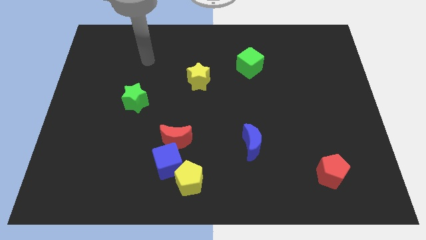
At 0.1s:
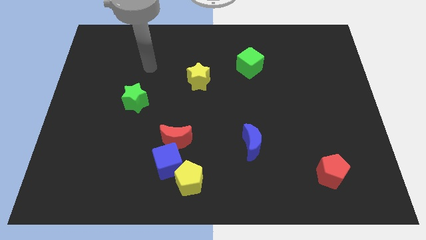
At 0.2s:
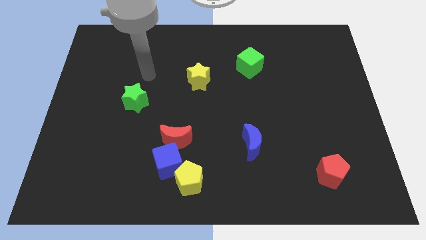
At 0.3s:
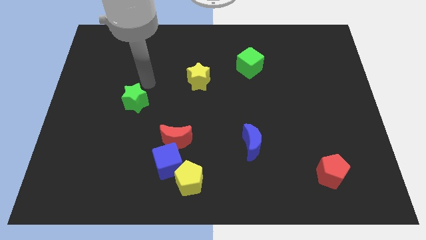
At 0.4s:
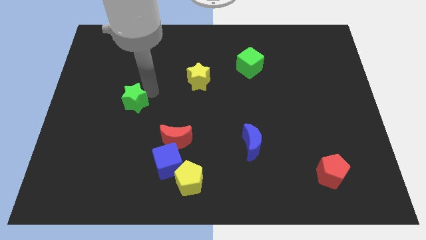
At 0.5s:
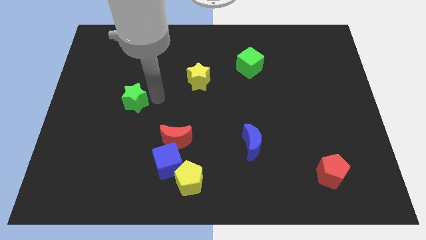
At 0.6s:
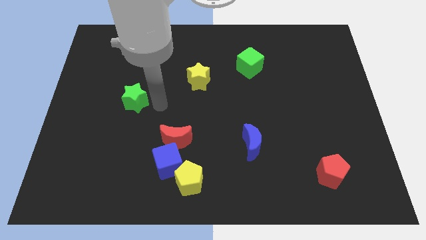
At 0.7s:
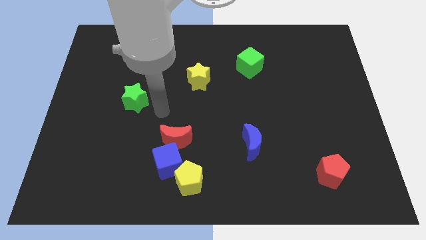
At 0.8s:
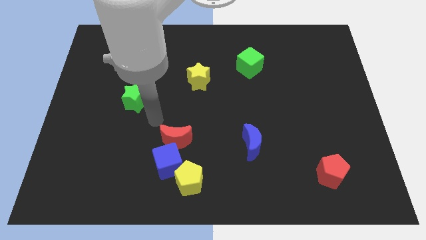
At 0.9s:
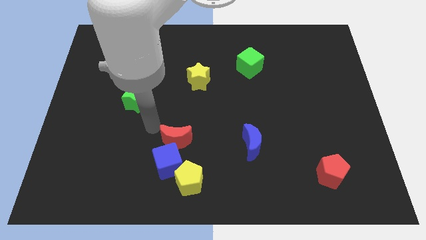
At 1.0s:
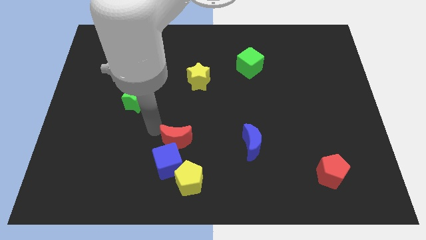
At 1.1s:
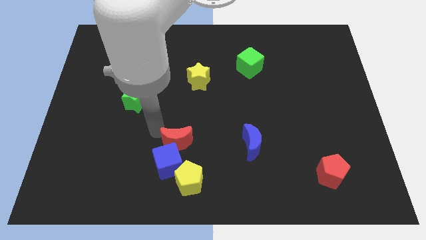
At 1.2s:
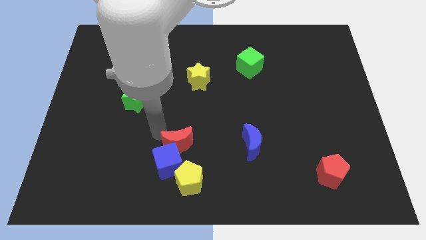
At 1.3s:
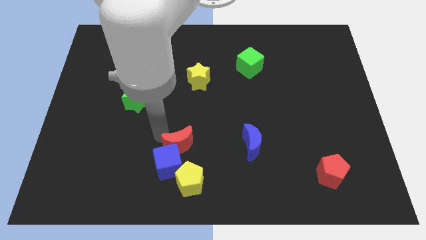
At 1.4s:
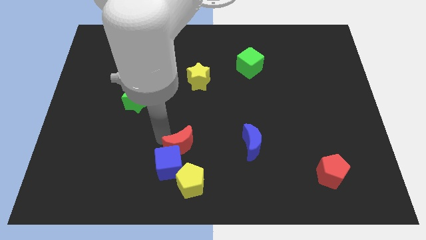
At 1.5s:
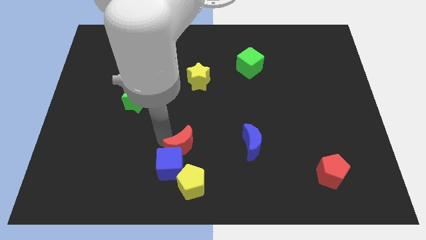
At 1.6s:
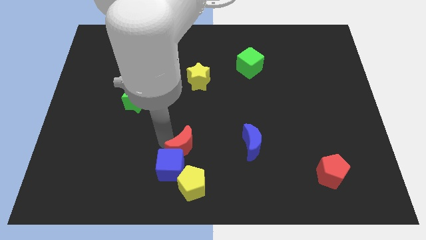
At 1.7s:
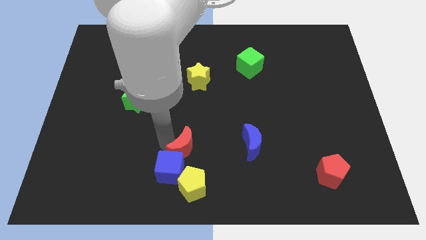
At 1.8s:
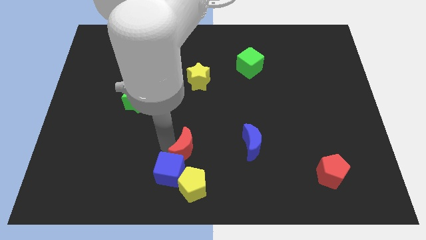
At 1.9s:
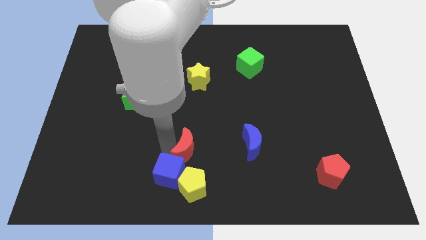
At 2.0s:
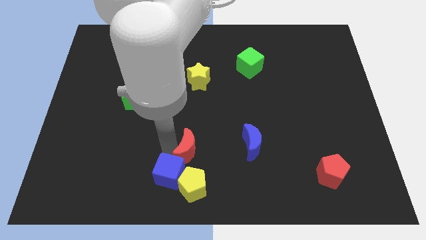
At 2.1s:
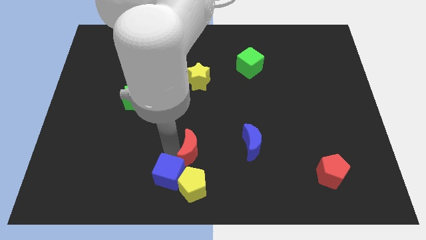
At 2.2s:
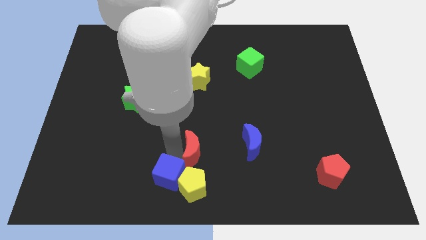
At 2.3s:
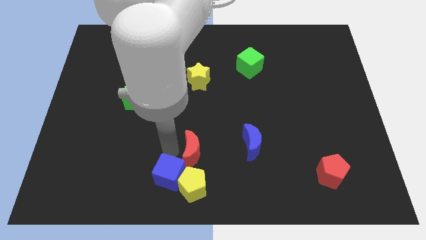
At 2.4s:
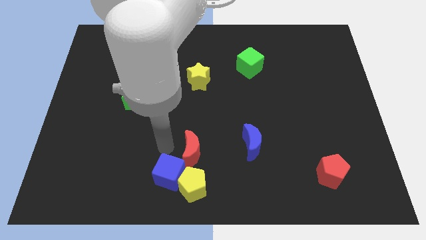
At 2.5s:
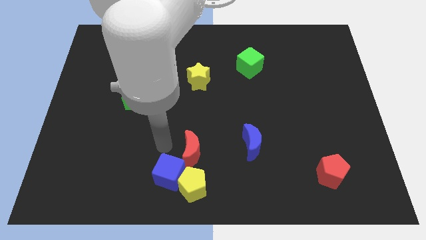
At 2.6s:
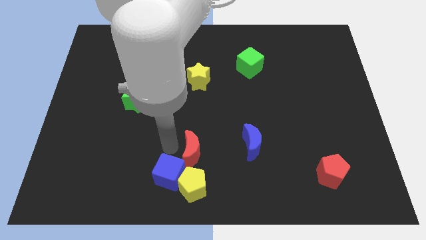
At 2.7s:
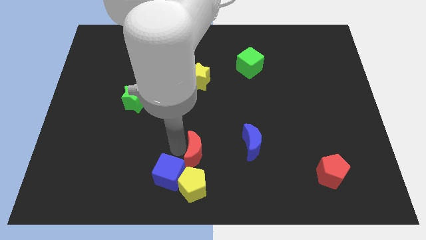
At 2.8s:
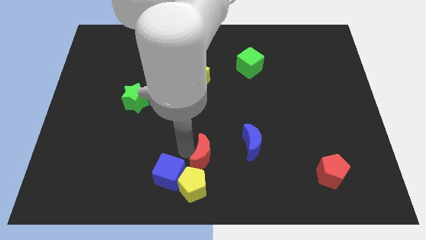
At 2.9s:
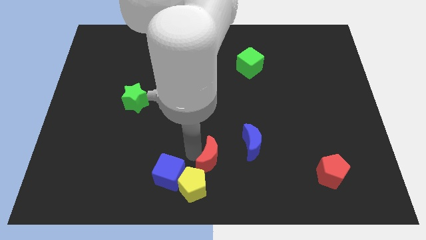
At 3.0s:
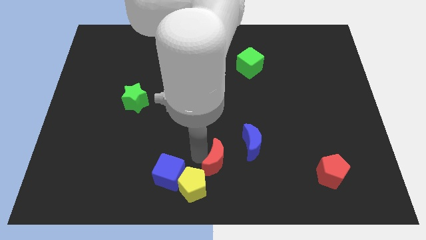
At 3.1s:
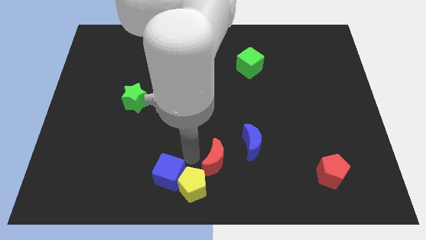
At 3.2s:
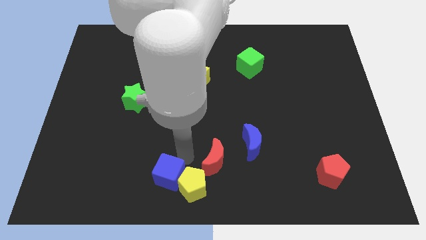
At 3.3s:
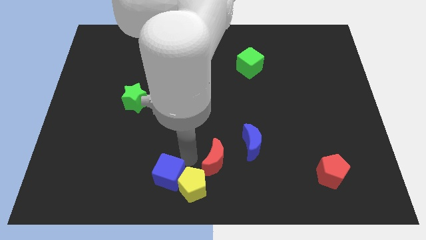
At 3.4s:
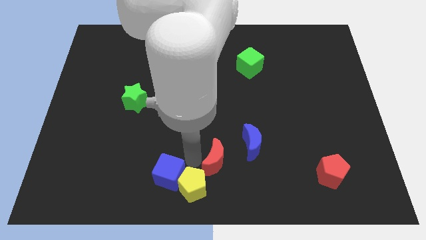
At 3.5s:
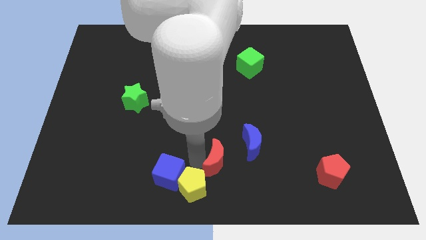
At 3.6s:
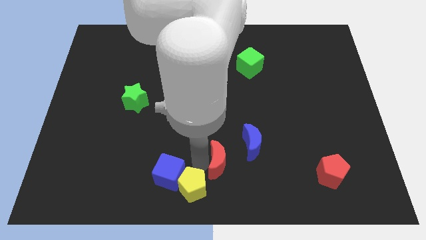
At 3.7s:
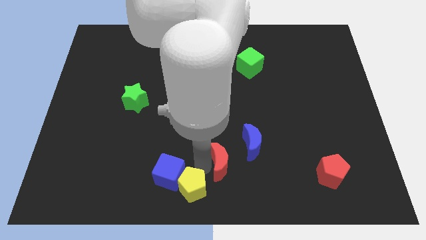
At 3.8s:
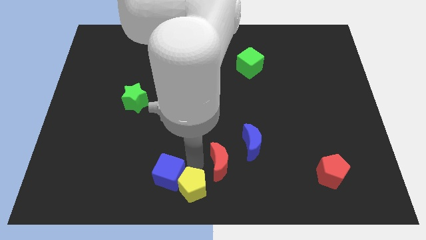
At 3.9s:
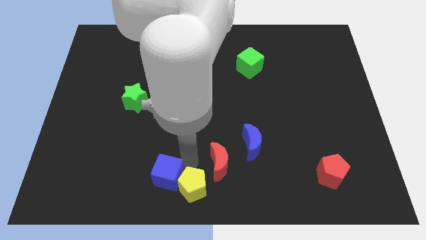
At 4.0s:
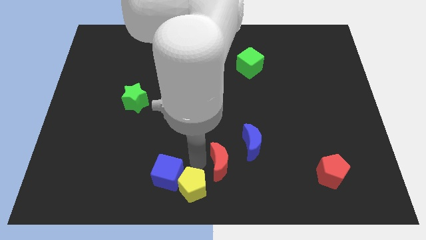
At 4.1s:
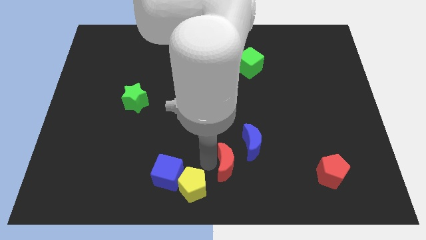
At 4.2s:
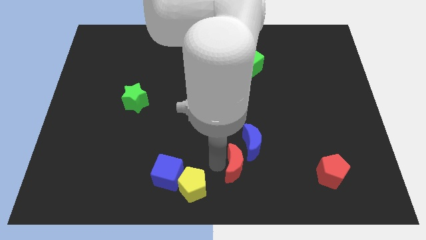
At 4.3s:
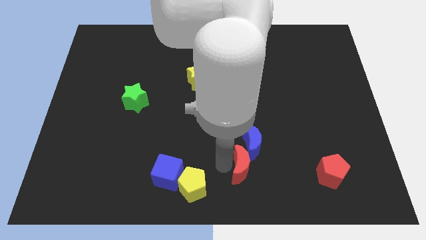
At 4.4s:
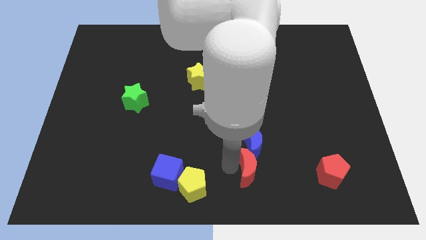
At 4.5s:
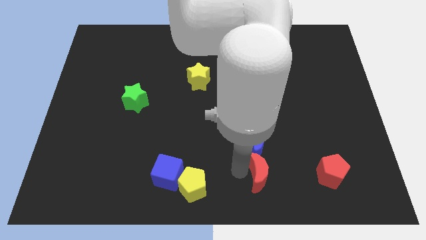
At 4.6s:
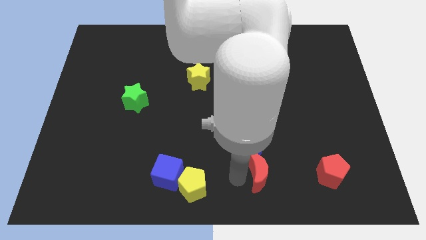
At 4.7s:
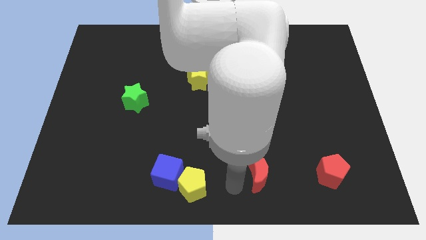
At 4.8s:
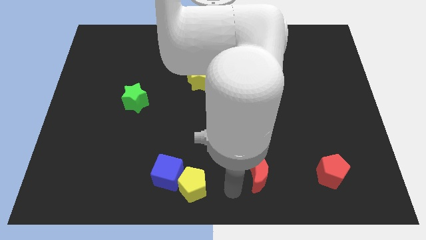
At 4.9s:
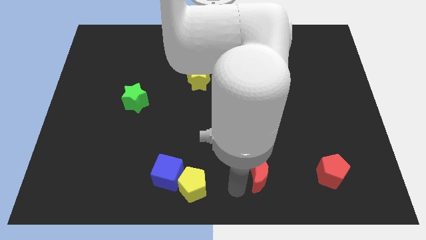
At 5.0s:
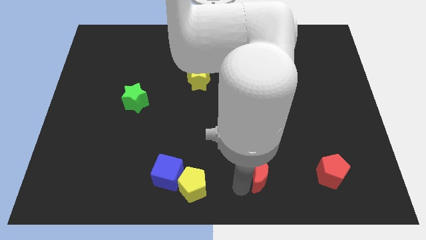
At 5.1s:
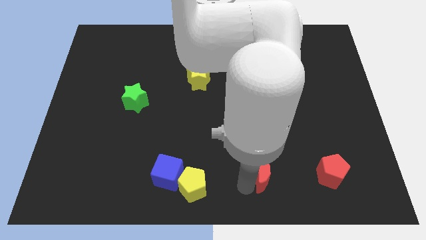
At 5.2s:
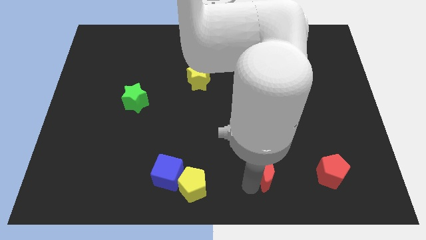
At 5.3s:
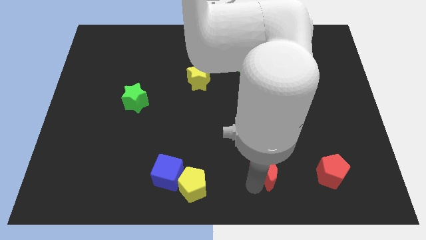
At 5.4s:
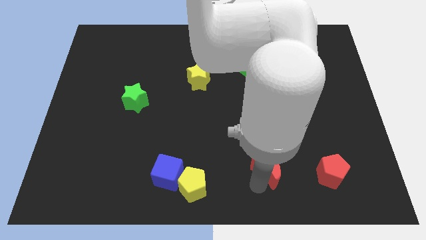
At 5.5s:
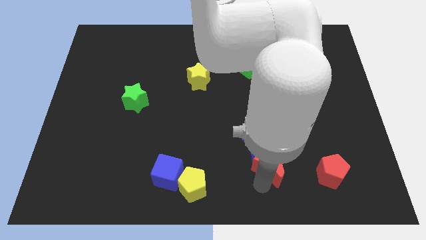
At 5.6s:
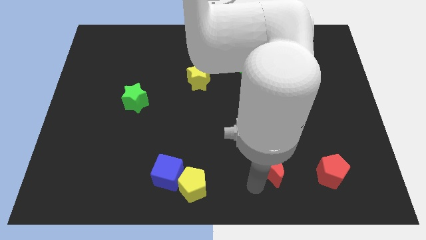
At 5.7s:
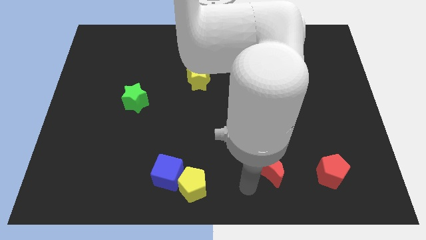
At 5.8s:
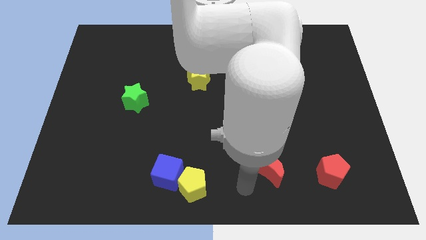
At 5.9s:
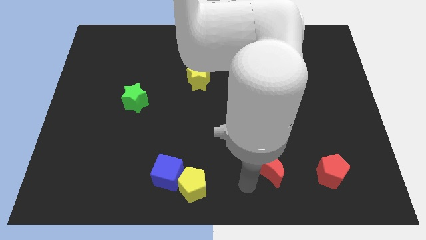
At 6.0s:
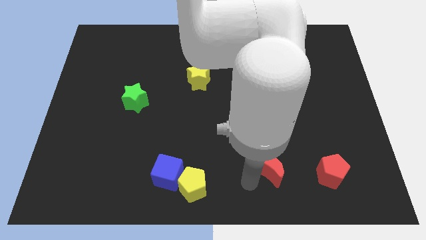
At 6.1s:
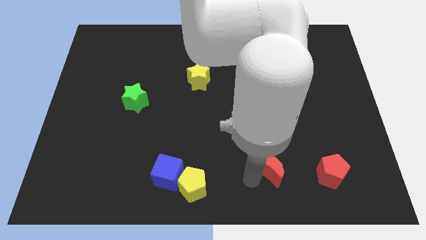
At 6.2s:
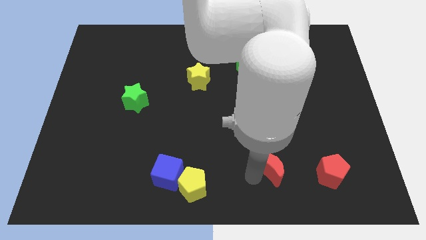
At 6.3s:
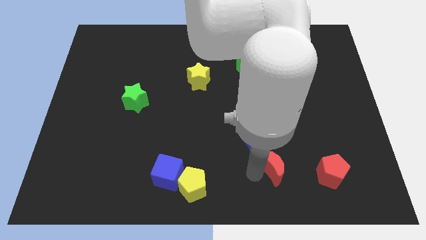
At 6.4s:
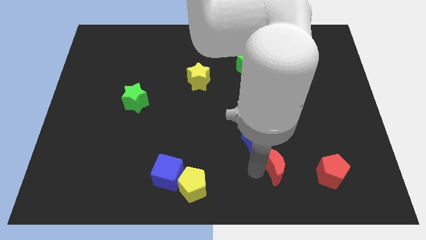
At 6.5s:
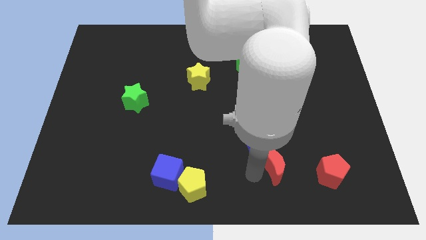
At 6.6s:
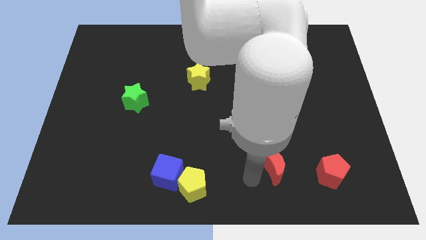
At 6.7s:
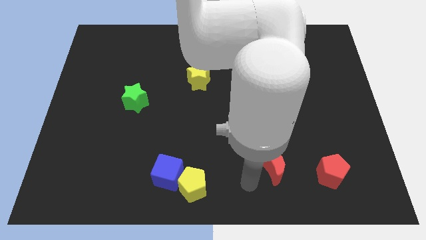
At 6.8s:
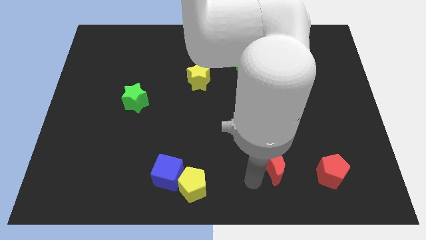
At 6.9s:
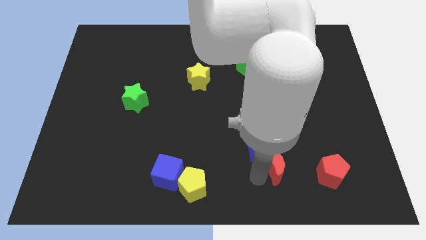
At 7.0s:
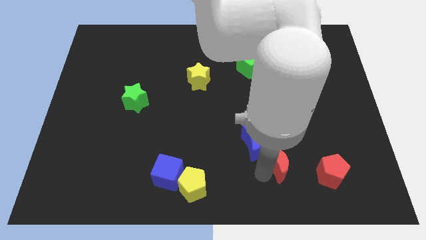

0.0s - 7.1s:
move the red moon to the right

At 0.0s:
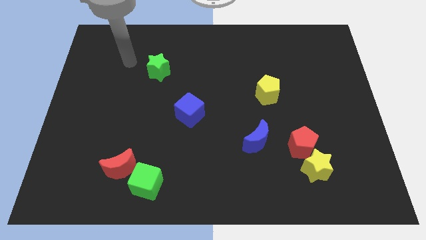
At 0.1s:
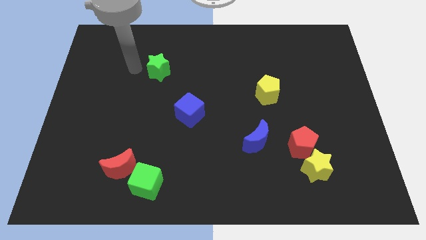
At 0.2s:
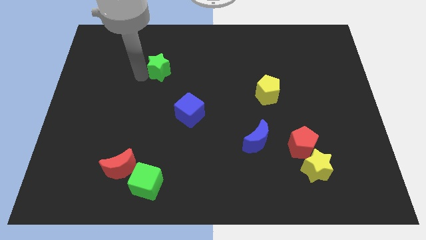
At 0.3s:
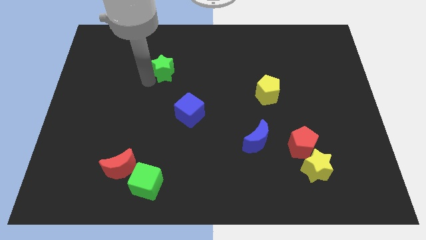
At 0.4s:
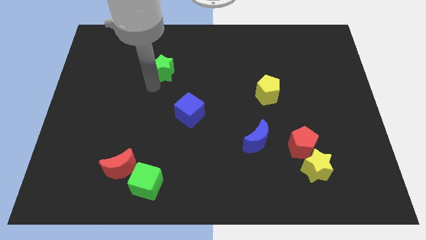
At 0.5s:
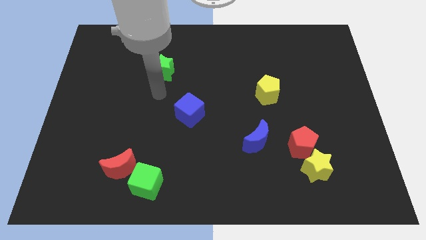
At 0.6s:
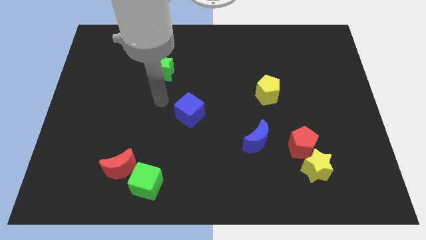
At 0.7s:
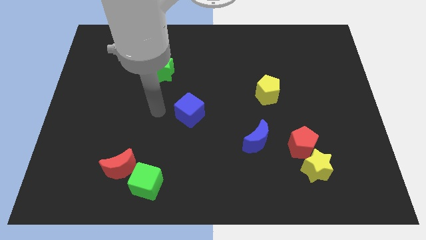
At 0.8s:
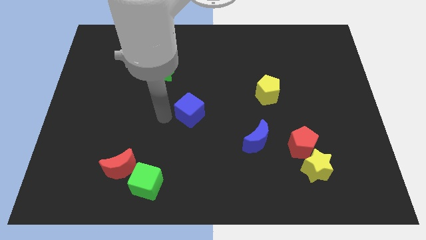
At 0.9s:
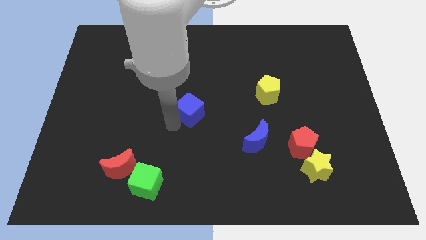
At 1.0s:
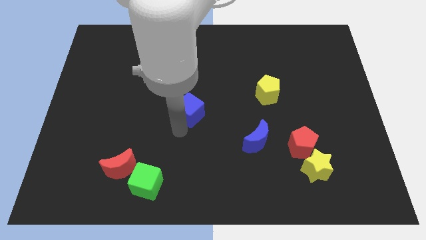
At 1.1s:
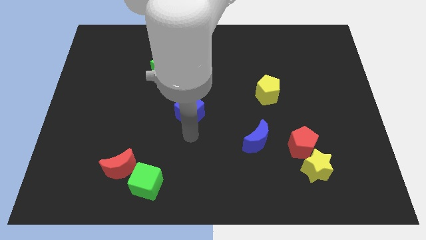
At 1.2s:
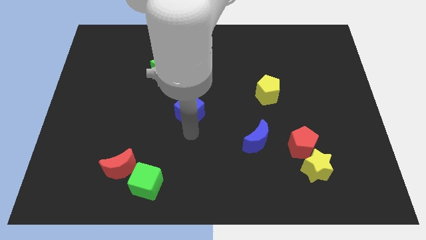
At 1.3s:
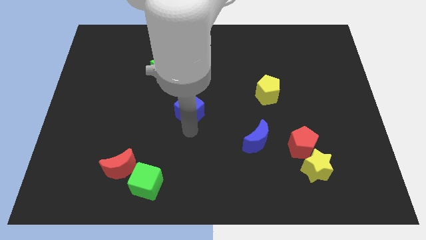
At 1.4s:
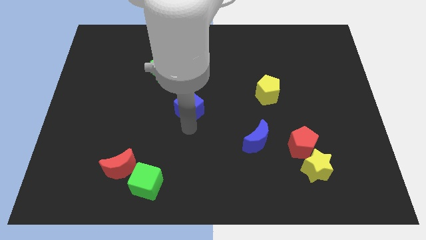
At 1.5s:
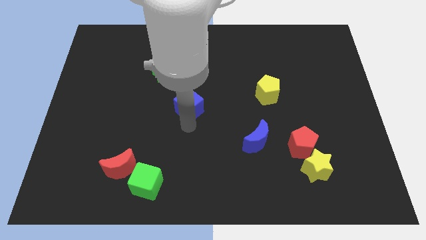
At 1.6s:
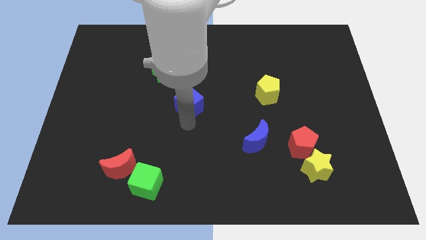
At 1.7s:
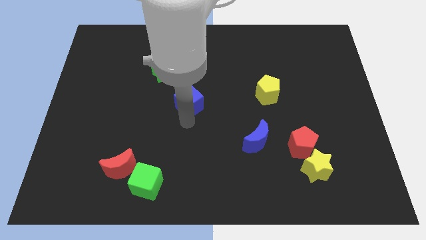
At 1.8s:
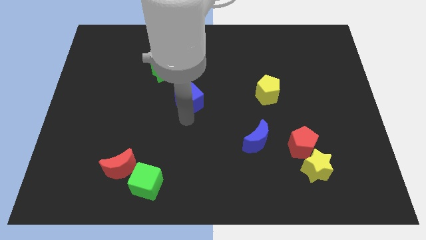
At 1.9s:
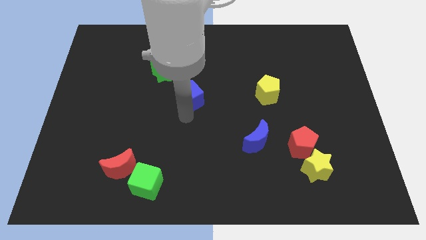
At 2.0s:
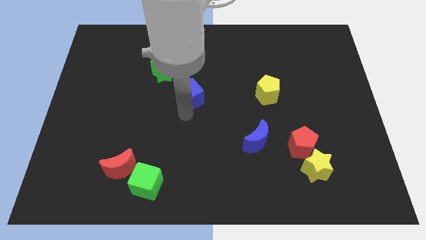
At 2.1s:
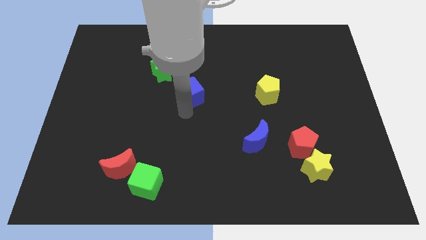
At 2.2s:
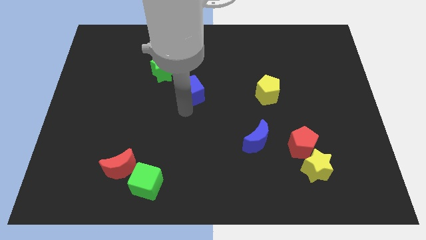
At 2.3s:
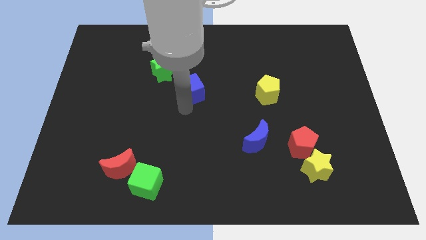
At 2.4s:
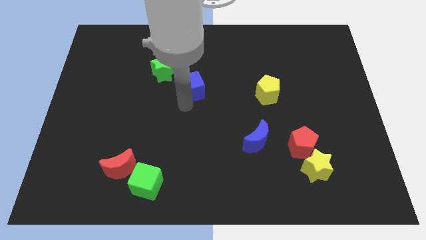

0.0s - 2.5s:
slightly push the blue cube up
